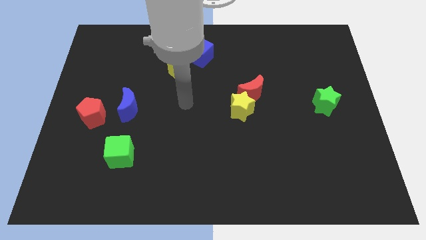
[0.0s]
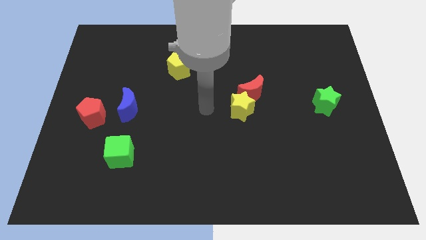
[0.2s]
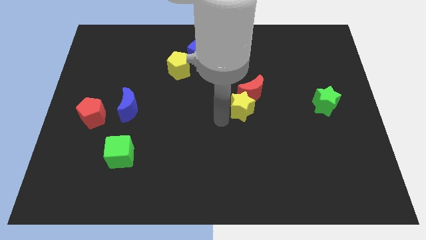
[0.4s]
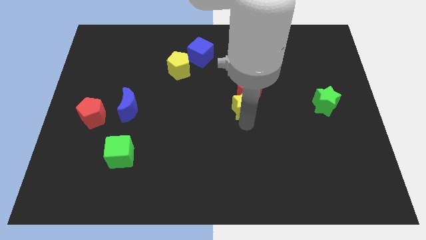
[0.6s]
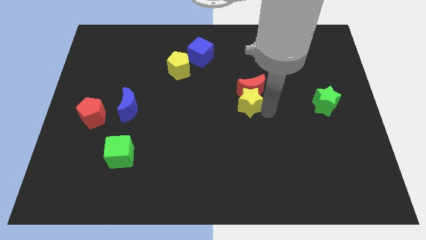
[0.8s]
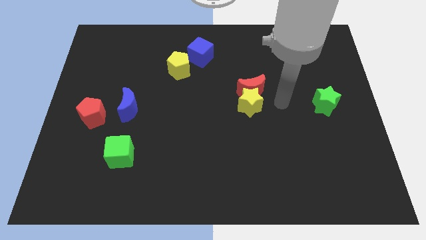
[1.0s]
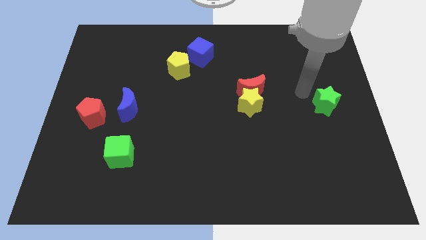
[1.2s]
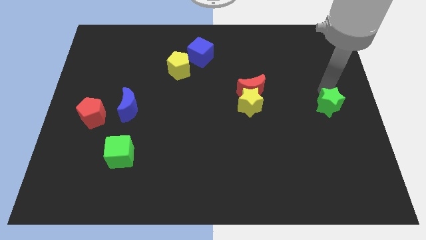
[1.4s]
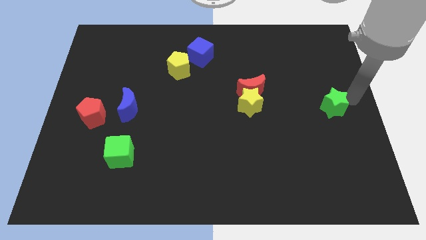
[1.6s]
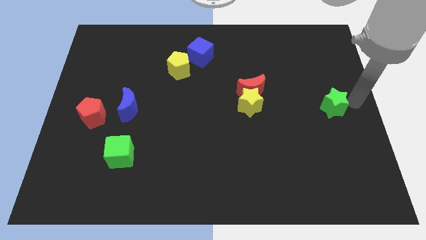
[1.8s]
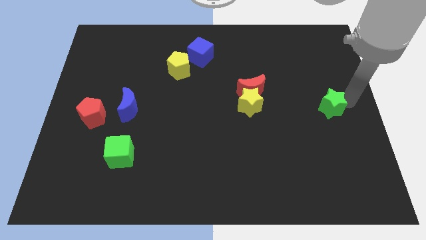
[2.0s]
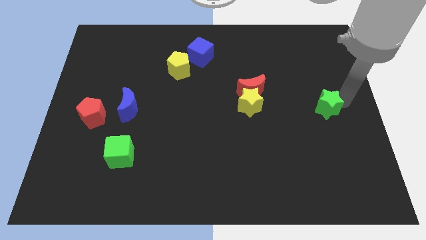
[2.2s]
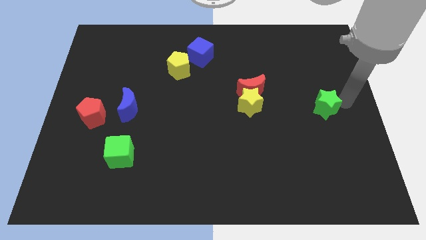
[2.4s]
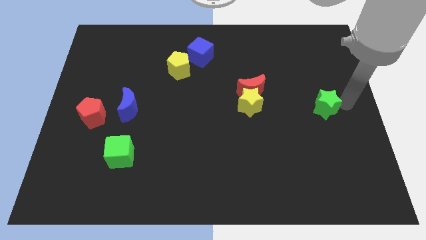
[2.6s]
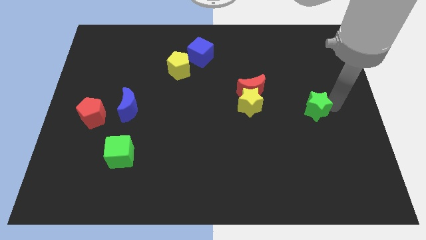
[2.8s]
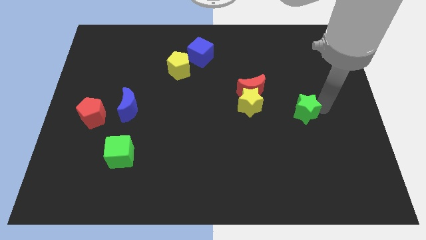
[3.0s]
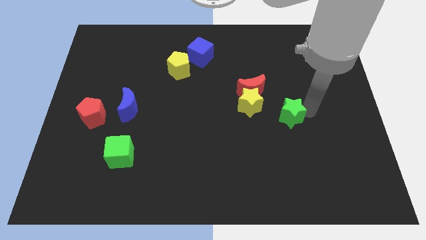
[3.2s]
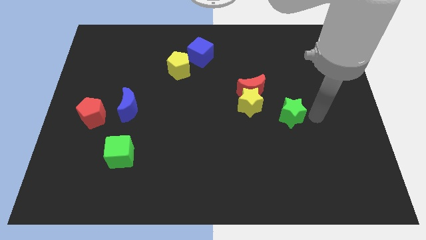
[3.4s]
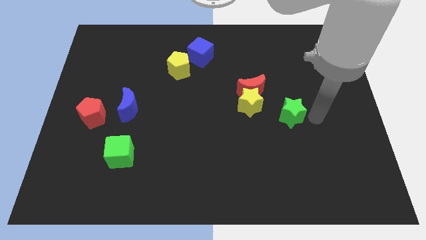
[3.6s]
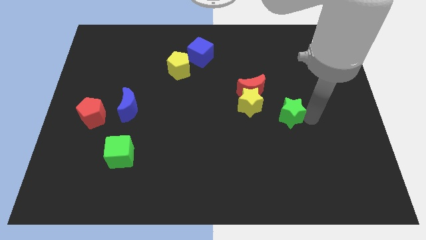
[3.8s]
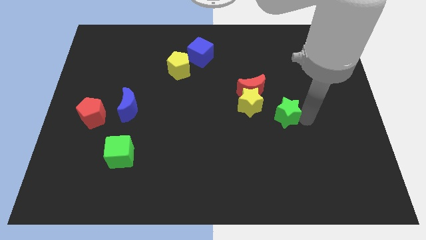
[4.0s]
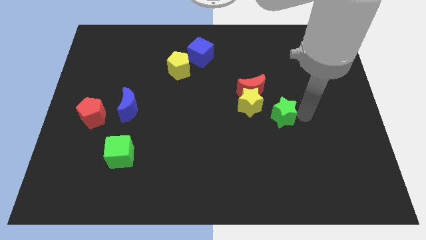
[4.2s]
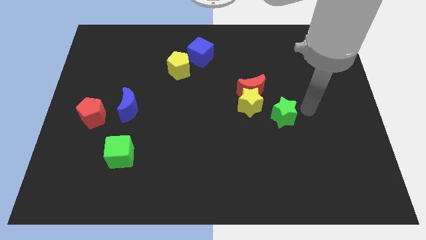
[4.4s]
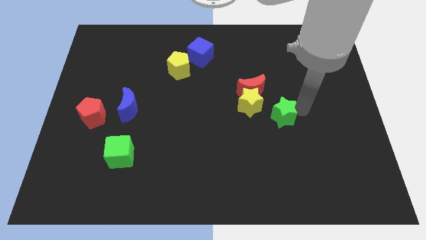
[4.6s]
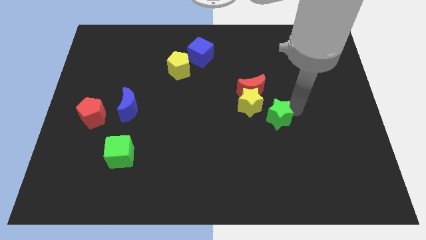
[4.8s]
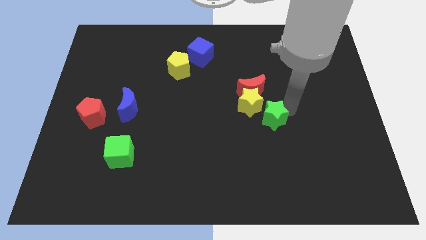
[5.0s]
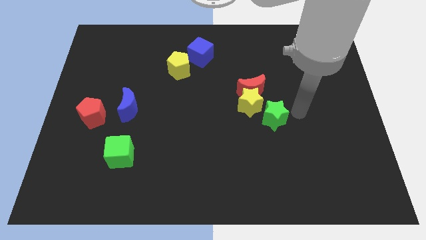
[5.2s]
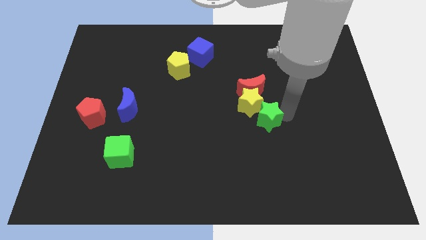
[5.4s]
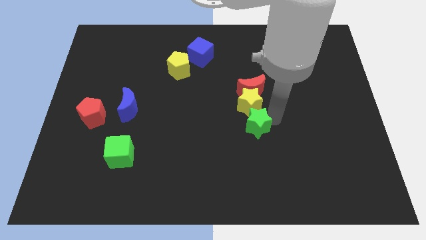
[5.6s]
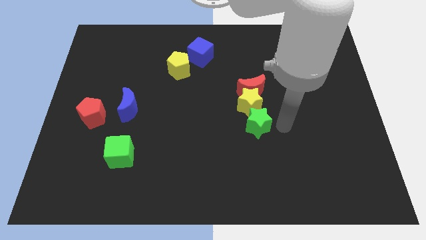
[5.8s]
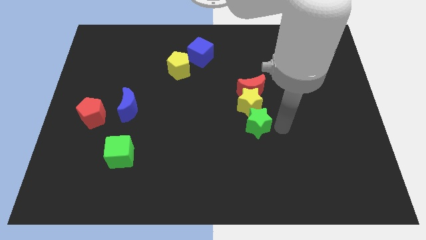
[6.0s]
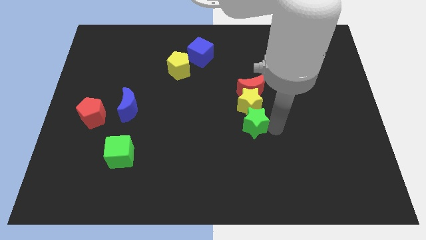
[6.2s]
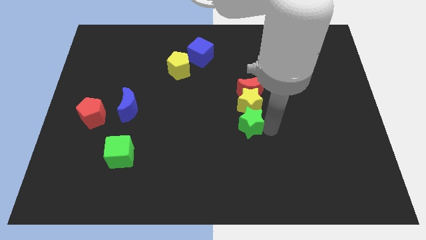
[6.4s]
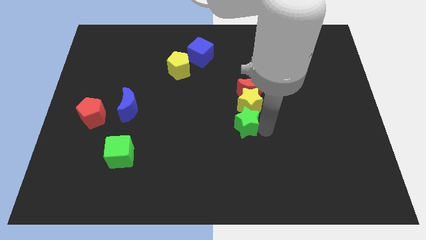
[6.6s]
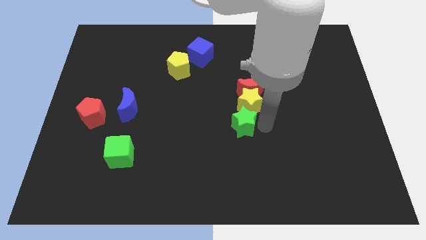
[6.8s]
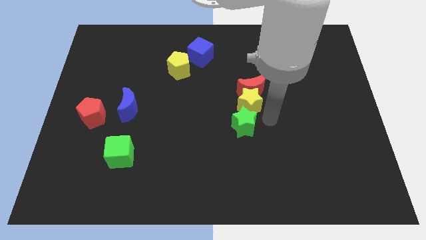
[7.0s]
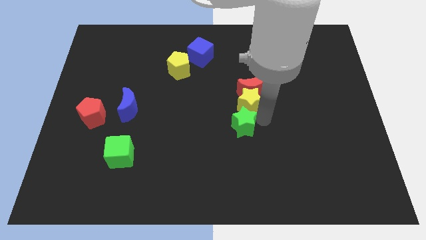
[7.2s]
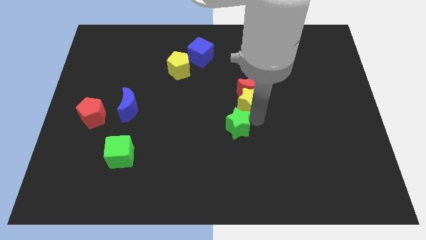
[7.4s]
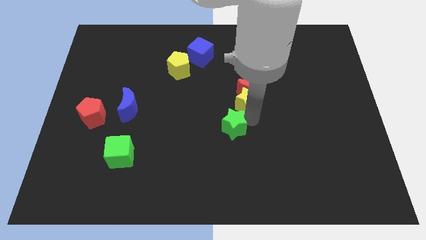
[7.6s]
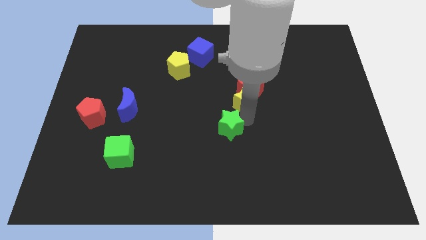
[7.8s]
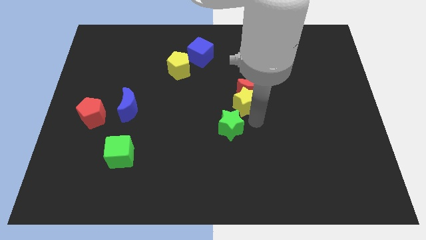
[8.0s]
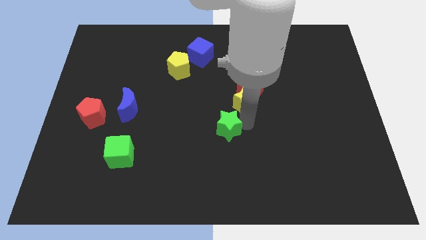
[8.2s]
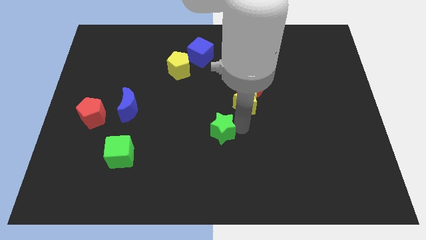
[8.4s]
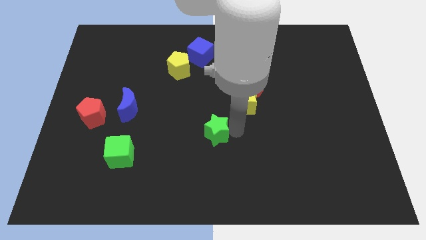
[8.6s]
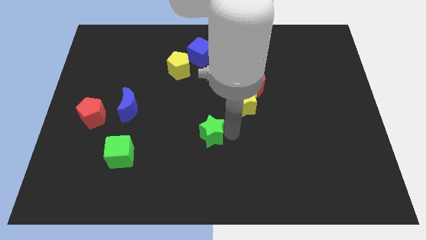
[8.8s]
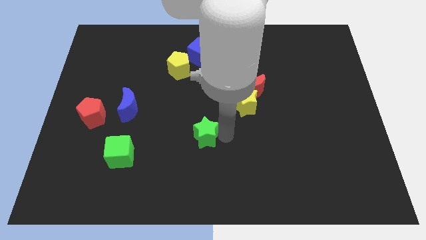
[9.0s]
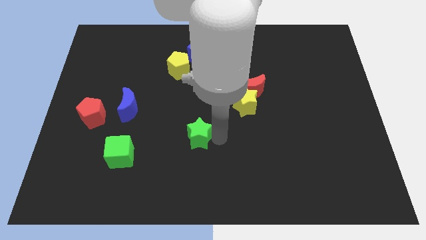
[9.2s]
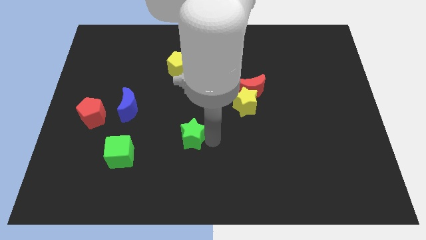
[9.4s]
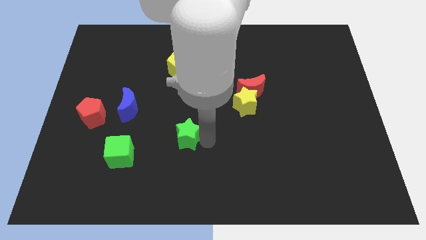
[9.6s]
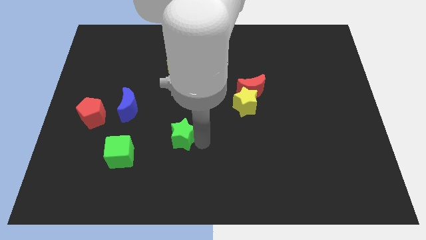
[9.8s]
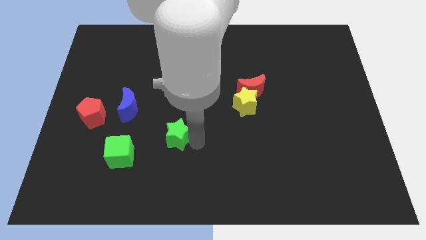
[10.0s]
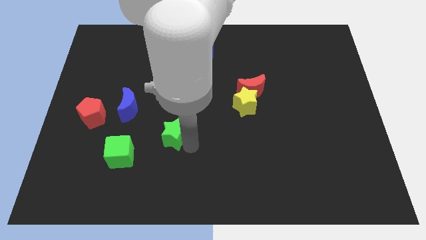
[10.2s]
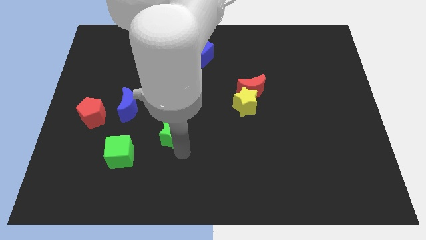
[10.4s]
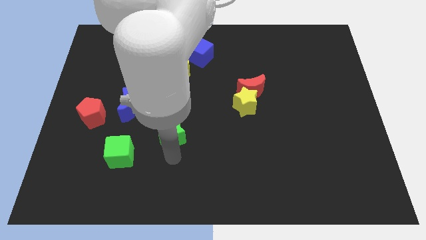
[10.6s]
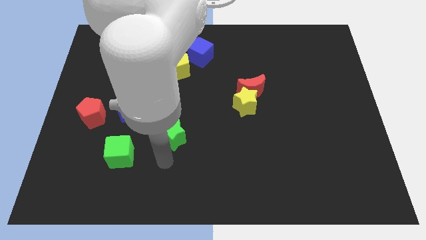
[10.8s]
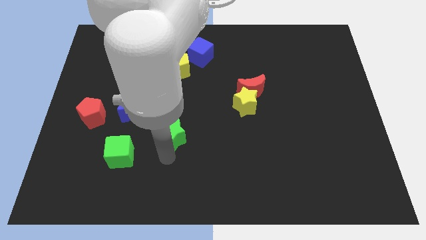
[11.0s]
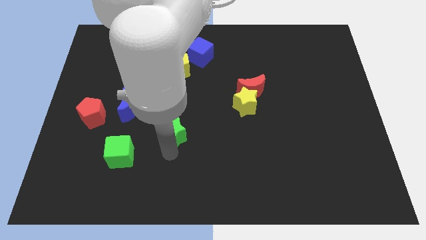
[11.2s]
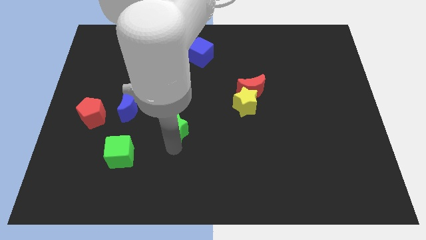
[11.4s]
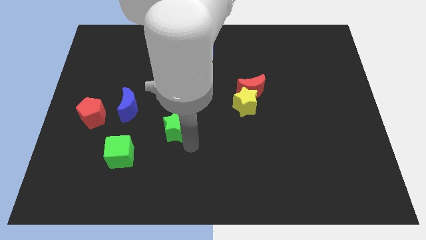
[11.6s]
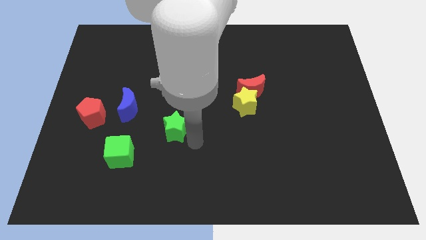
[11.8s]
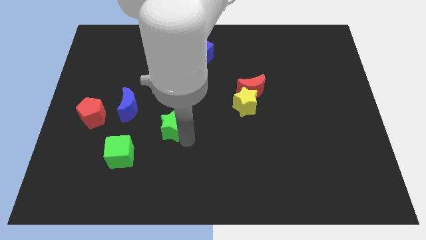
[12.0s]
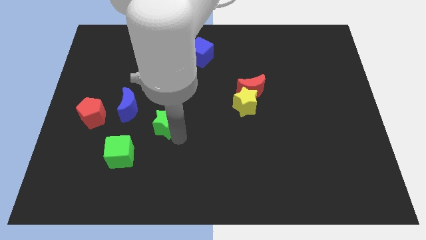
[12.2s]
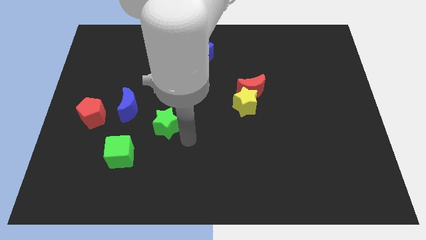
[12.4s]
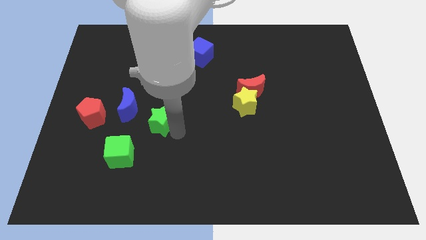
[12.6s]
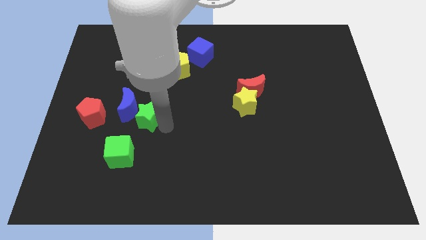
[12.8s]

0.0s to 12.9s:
move the green star next to the blue moon

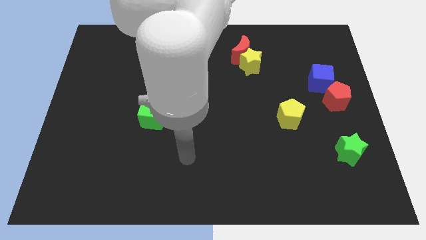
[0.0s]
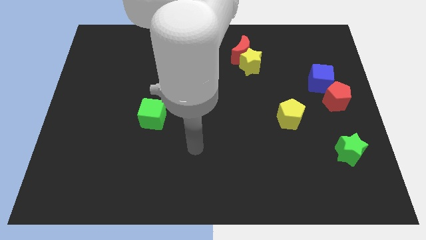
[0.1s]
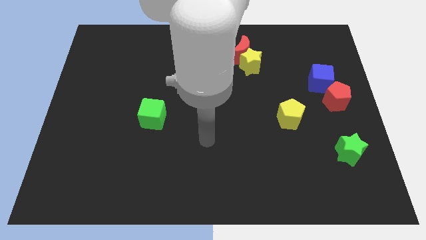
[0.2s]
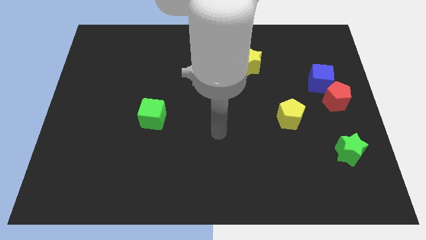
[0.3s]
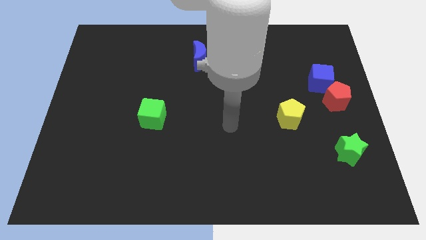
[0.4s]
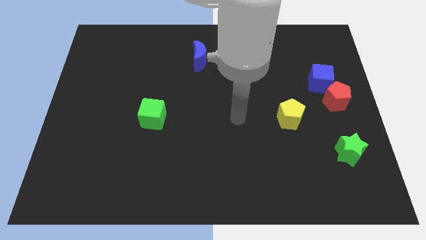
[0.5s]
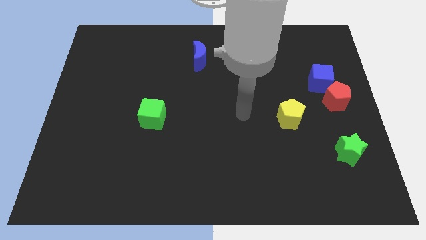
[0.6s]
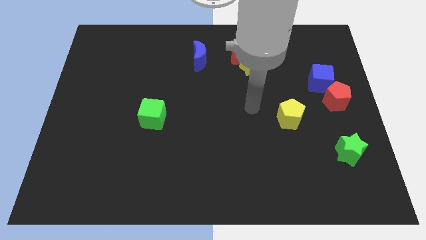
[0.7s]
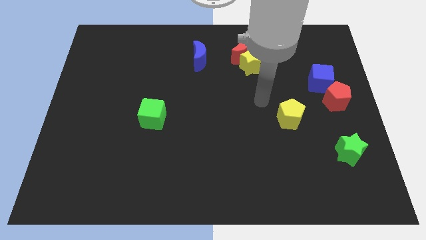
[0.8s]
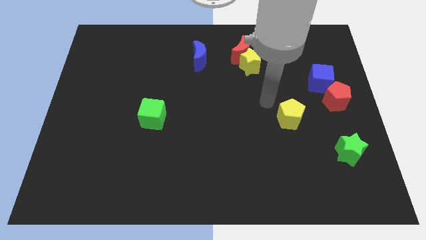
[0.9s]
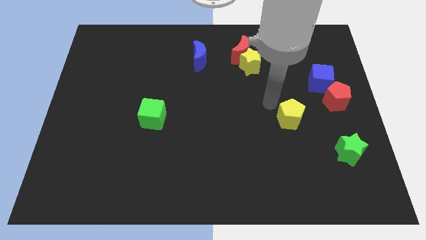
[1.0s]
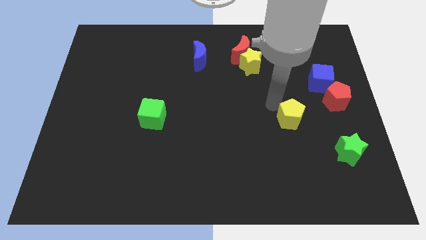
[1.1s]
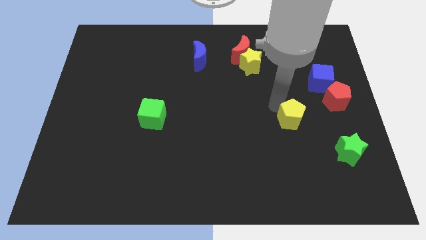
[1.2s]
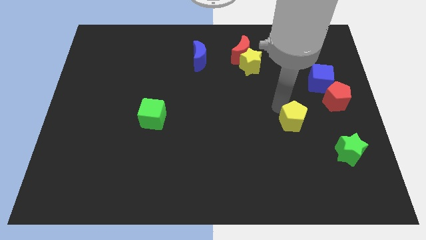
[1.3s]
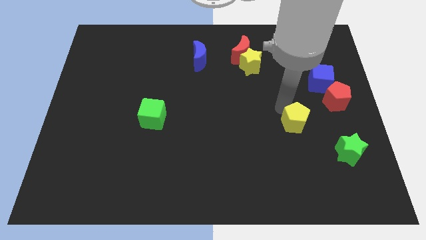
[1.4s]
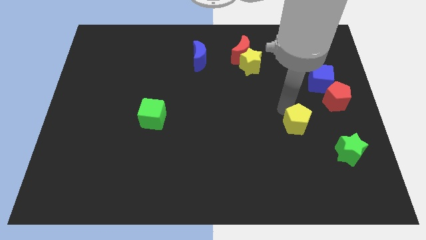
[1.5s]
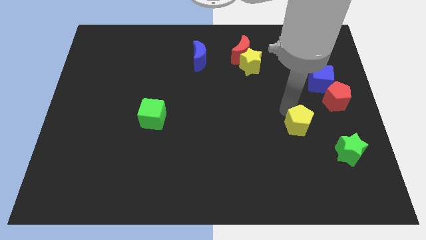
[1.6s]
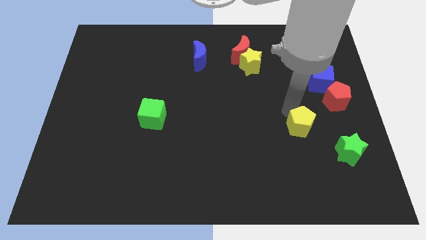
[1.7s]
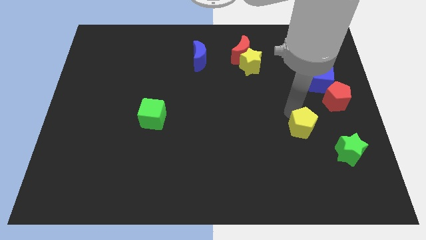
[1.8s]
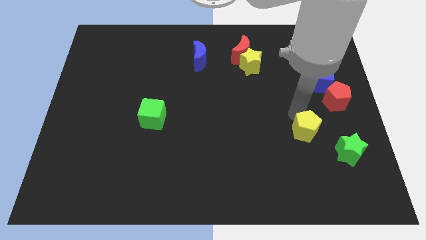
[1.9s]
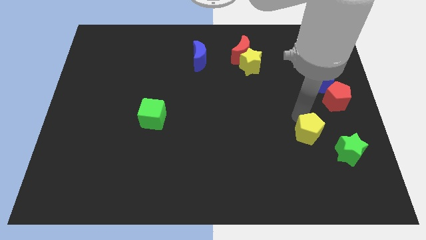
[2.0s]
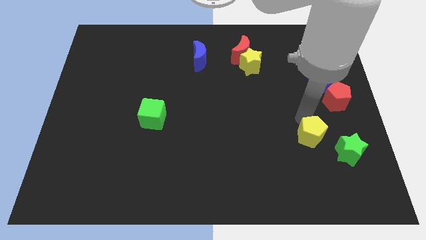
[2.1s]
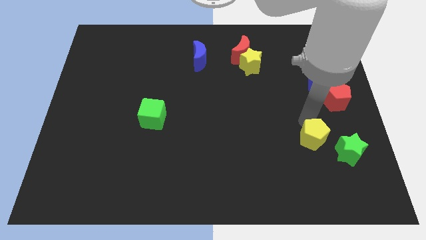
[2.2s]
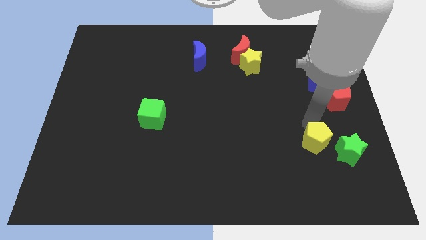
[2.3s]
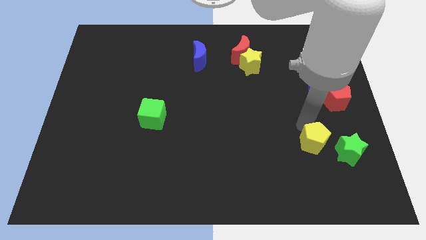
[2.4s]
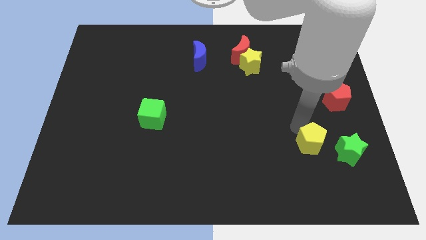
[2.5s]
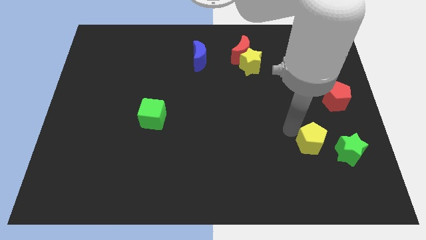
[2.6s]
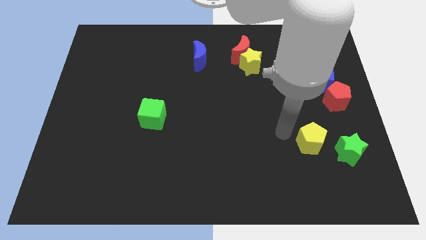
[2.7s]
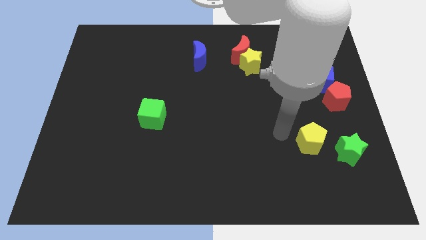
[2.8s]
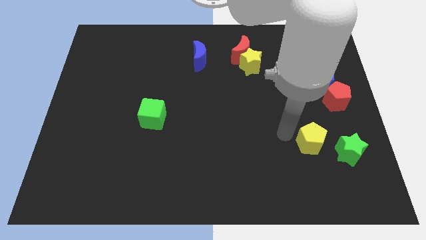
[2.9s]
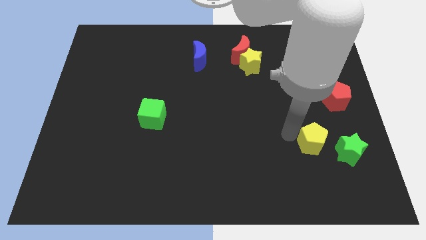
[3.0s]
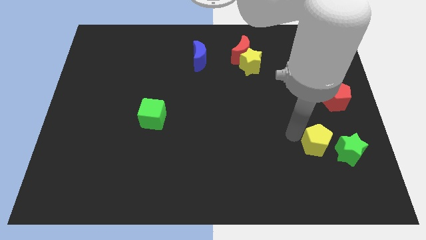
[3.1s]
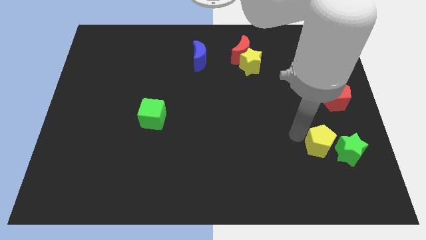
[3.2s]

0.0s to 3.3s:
move the yellow pentagon towards the green star
